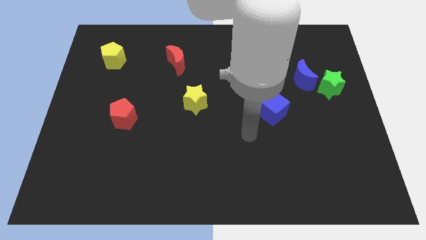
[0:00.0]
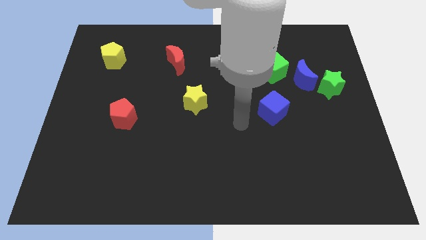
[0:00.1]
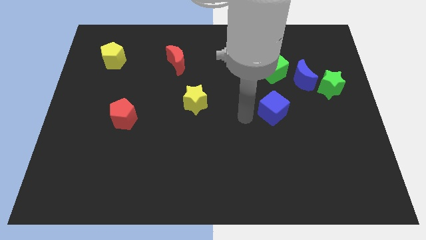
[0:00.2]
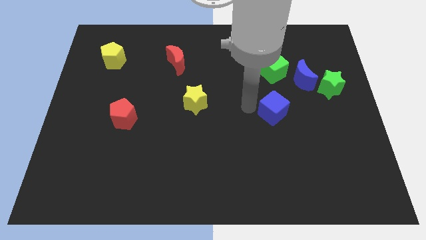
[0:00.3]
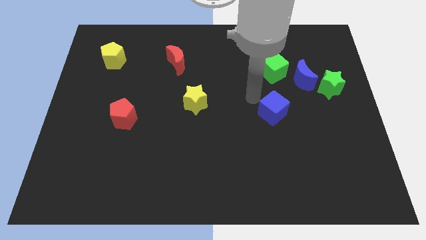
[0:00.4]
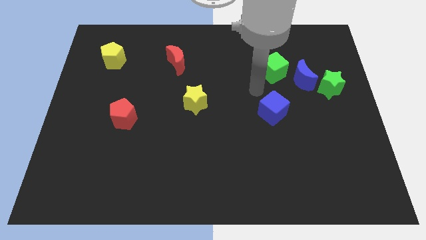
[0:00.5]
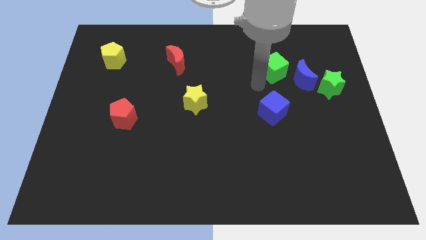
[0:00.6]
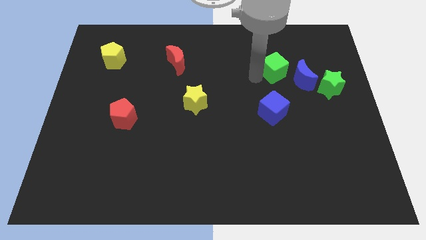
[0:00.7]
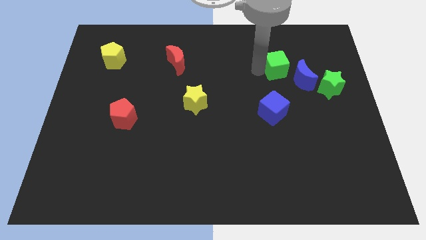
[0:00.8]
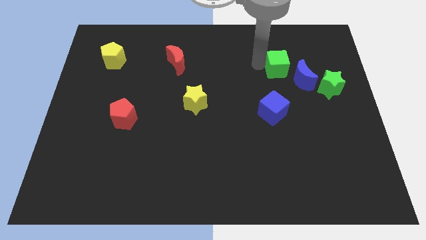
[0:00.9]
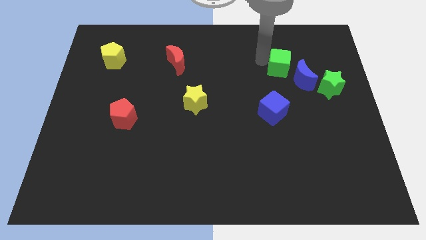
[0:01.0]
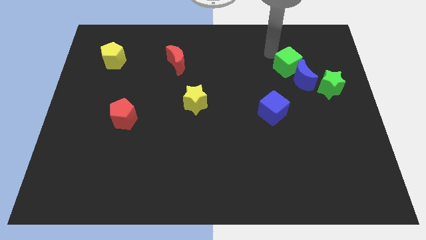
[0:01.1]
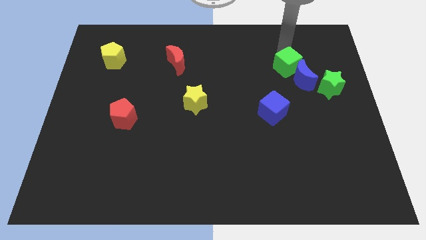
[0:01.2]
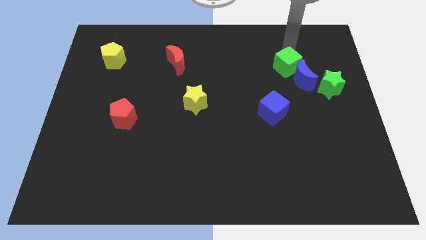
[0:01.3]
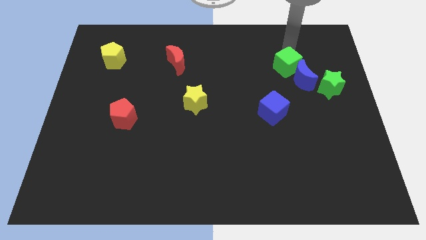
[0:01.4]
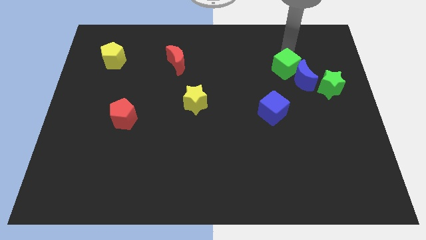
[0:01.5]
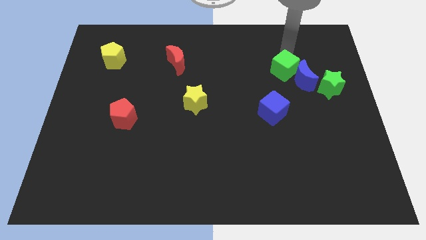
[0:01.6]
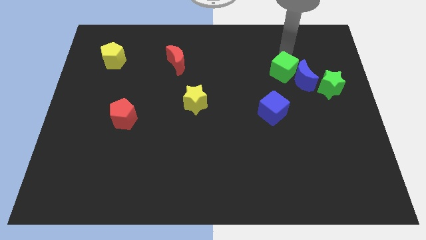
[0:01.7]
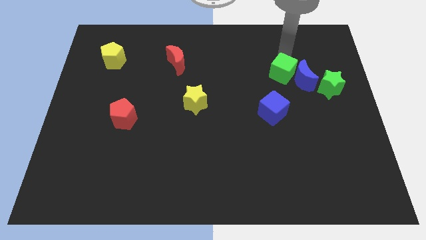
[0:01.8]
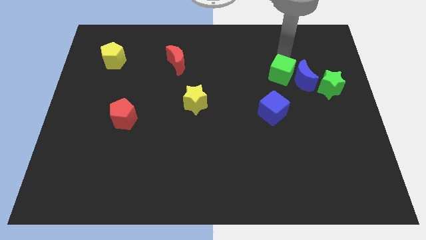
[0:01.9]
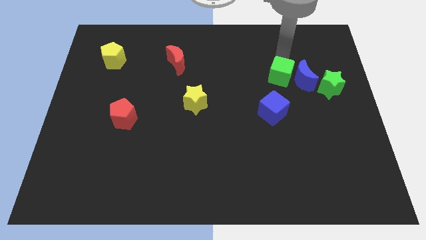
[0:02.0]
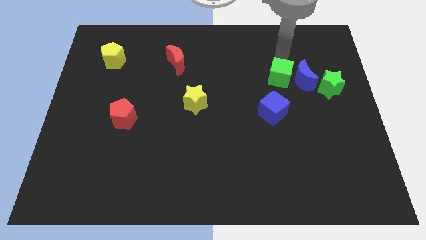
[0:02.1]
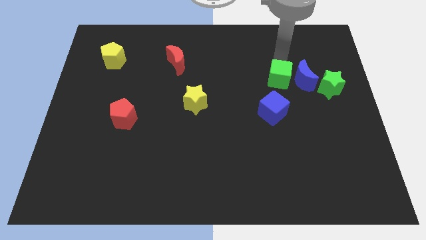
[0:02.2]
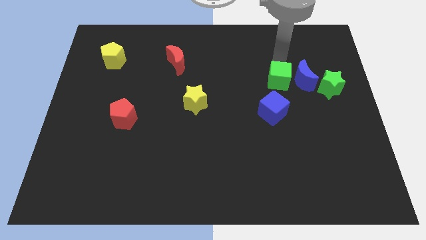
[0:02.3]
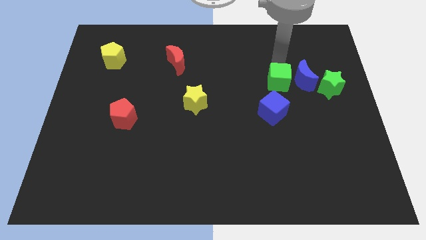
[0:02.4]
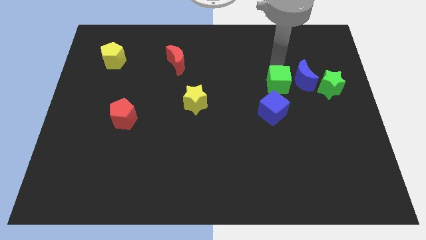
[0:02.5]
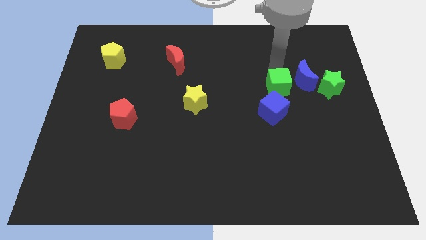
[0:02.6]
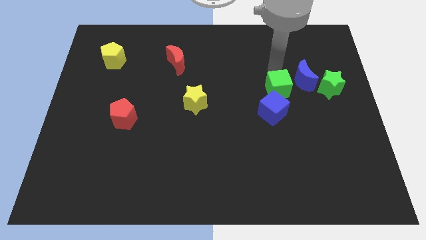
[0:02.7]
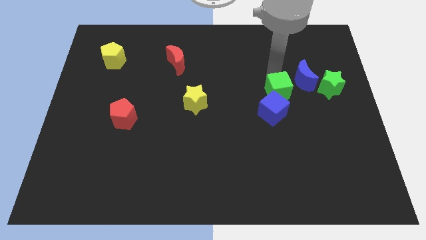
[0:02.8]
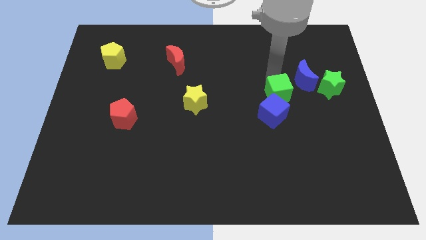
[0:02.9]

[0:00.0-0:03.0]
push the green cube a little downwards

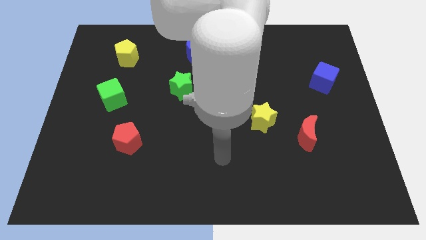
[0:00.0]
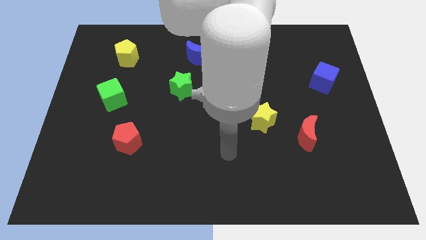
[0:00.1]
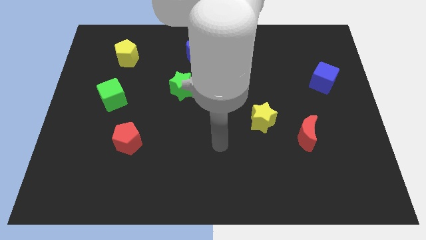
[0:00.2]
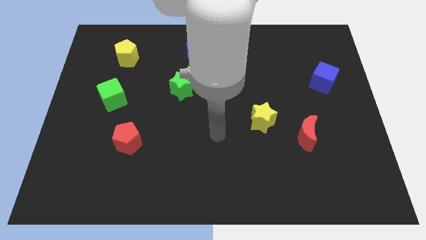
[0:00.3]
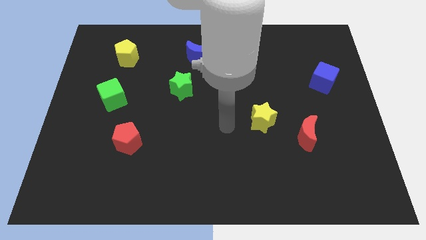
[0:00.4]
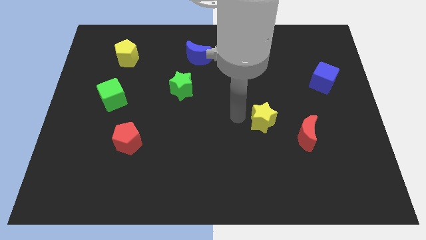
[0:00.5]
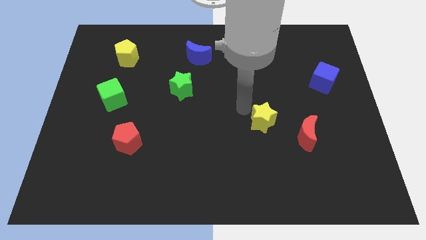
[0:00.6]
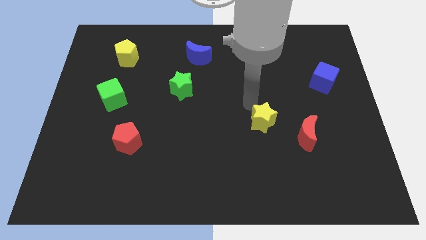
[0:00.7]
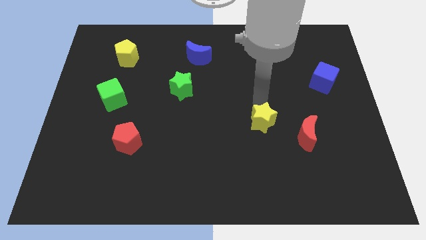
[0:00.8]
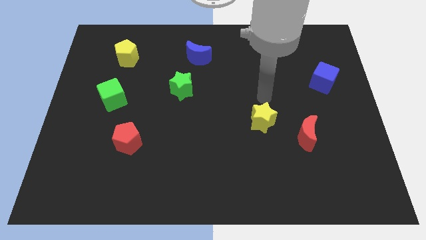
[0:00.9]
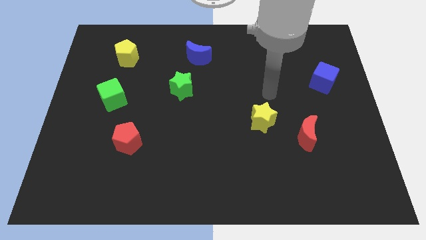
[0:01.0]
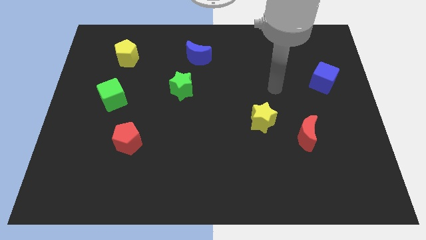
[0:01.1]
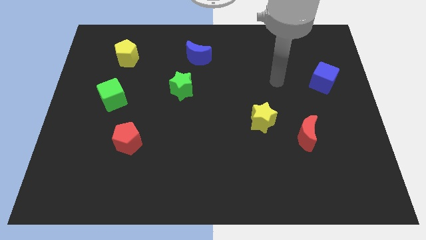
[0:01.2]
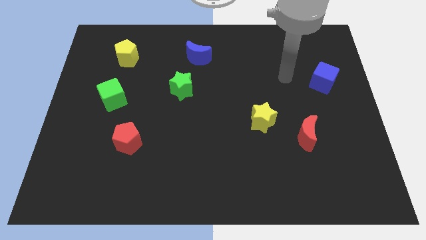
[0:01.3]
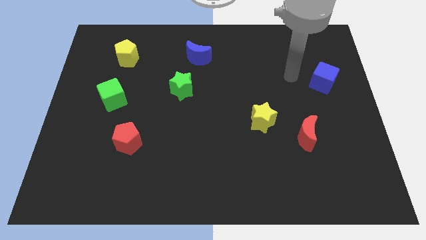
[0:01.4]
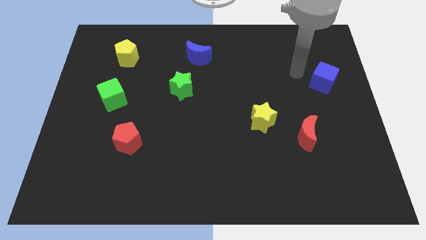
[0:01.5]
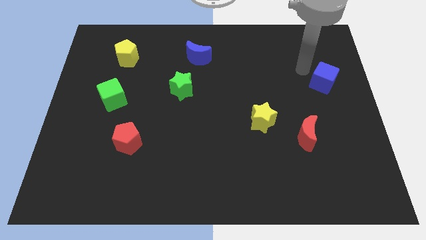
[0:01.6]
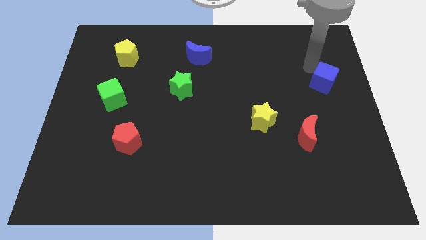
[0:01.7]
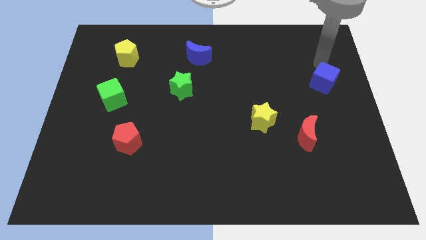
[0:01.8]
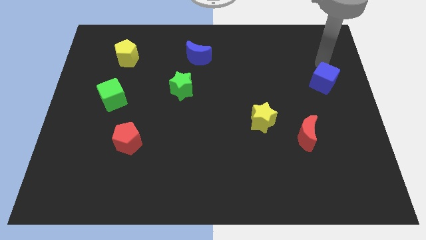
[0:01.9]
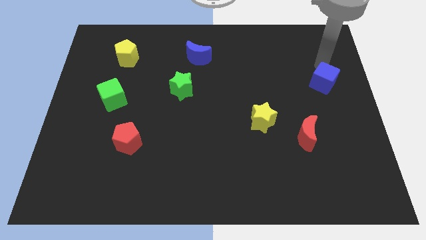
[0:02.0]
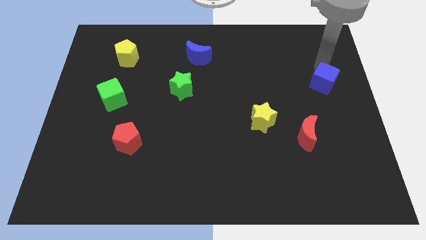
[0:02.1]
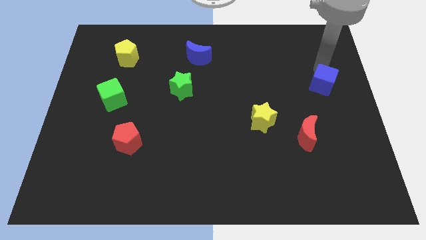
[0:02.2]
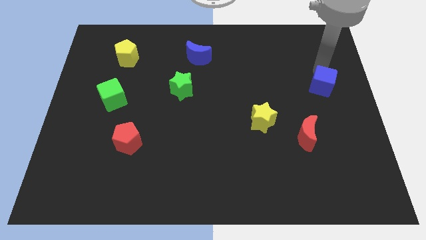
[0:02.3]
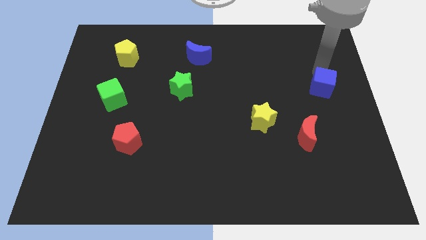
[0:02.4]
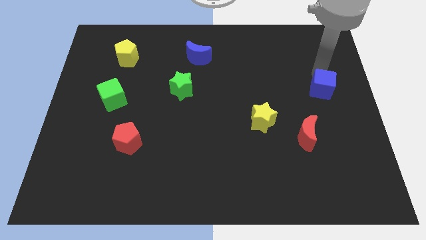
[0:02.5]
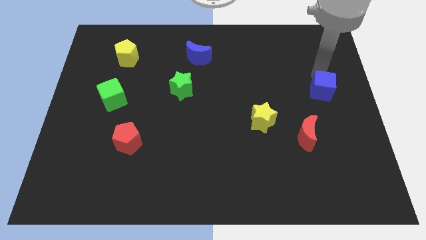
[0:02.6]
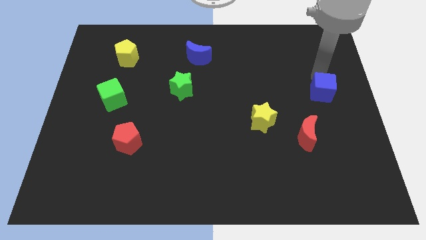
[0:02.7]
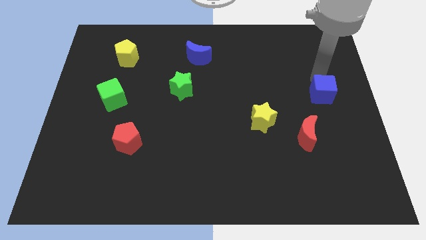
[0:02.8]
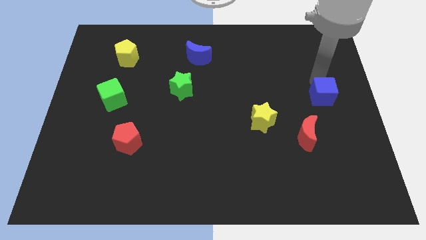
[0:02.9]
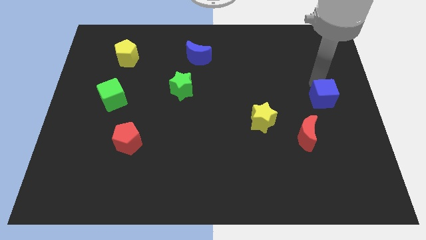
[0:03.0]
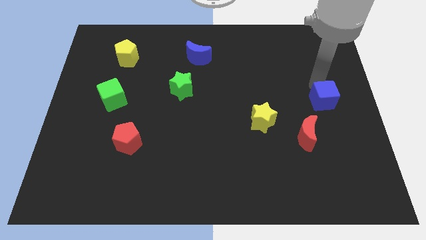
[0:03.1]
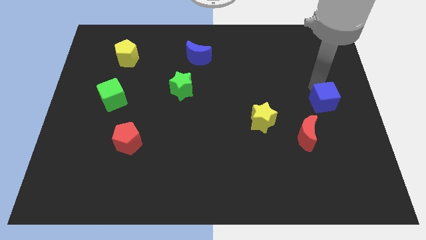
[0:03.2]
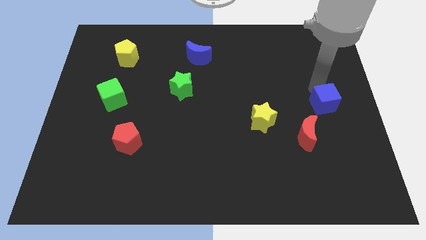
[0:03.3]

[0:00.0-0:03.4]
slightly move the blue cube downwards

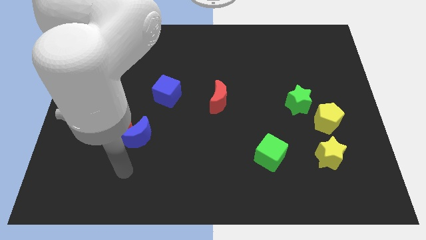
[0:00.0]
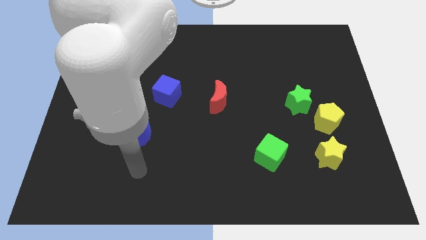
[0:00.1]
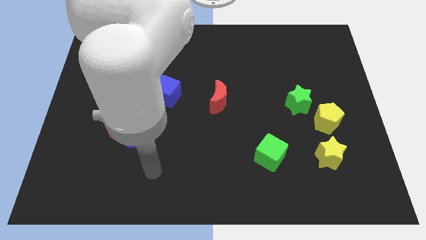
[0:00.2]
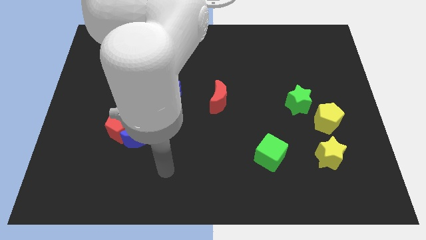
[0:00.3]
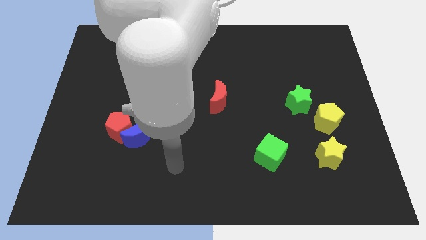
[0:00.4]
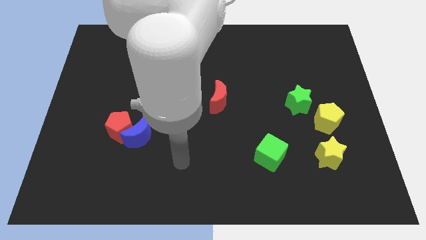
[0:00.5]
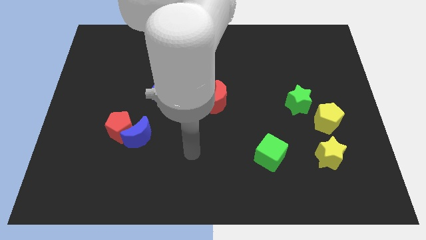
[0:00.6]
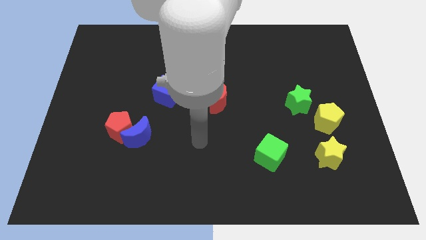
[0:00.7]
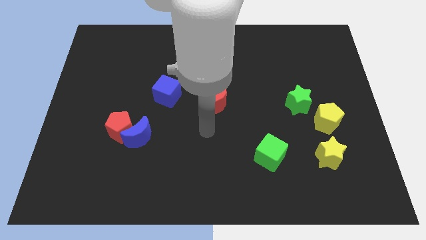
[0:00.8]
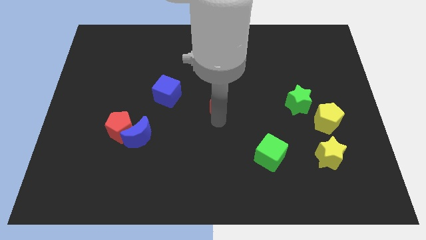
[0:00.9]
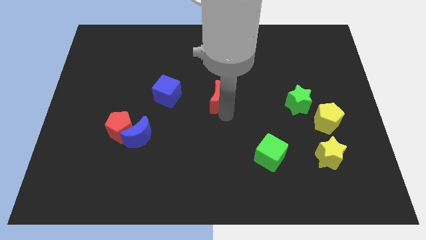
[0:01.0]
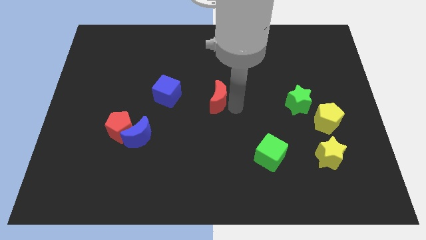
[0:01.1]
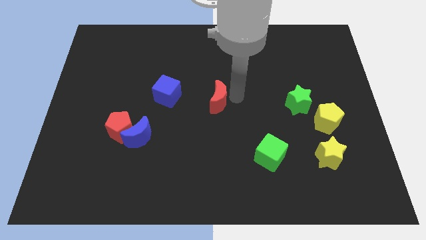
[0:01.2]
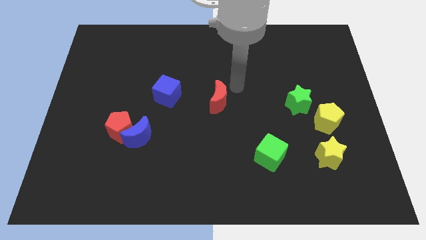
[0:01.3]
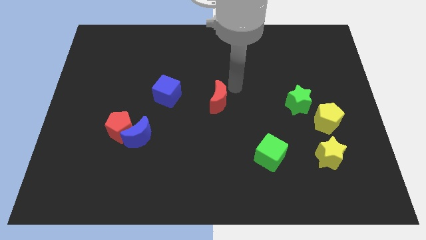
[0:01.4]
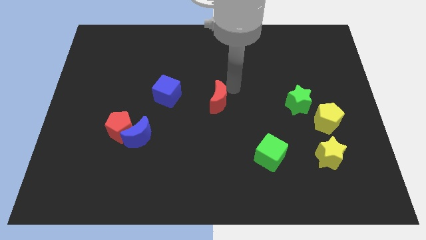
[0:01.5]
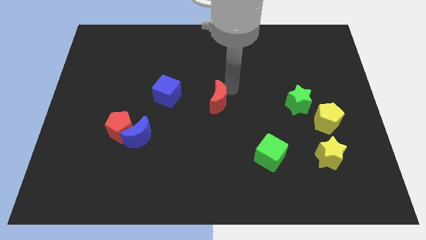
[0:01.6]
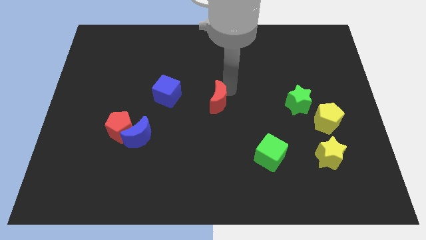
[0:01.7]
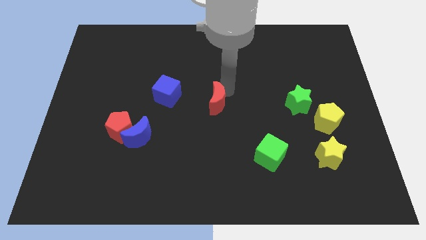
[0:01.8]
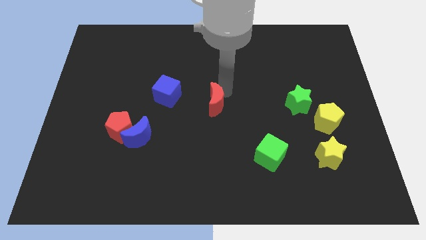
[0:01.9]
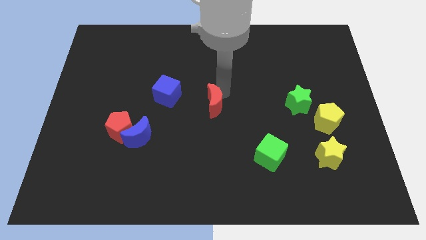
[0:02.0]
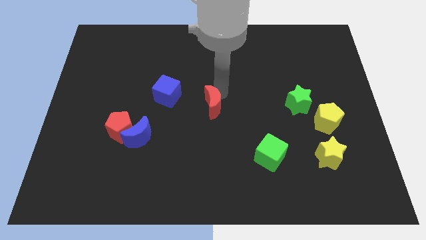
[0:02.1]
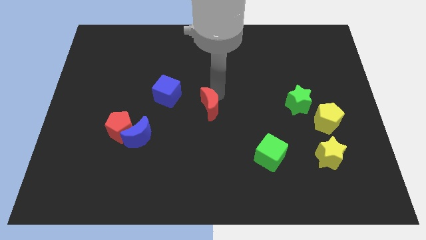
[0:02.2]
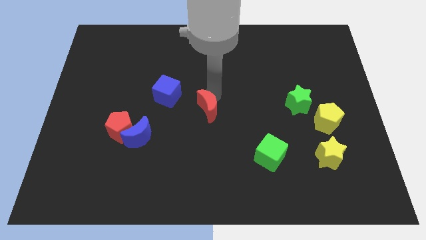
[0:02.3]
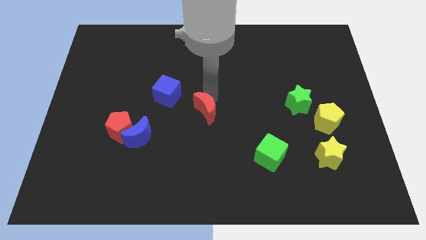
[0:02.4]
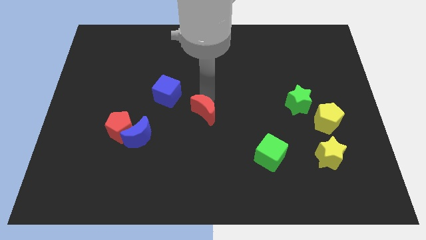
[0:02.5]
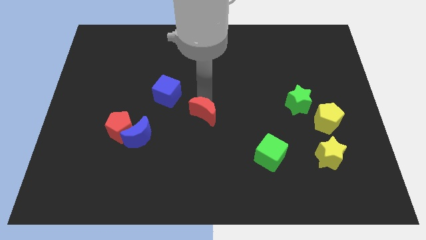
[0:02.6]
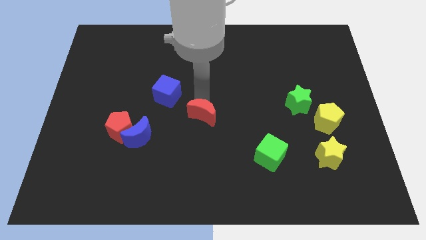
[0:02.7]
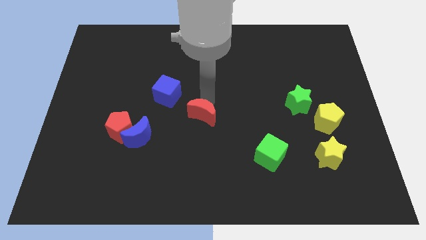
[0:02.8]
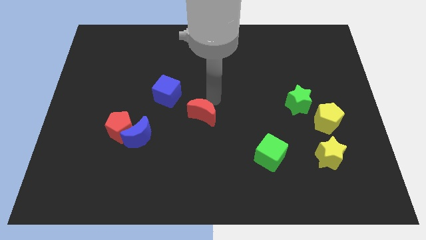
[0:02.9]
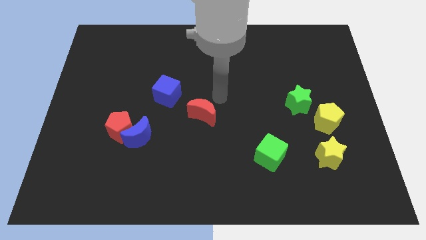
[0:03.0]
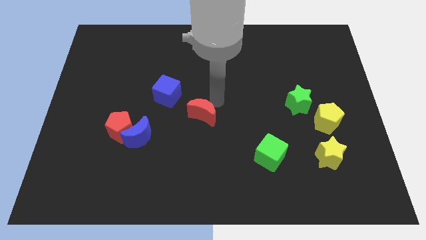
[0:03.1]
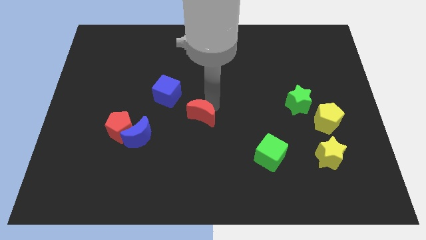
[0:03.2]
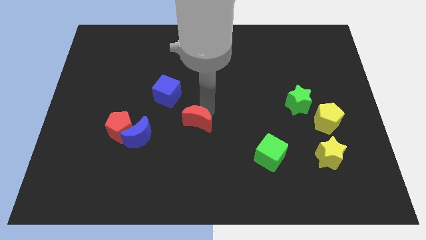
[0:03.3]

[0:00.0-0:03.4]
move the red moon diagonally downwards and left a little
